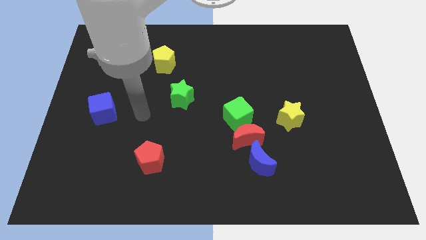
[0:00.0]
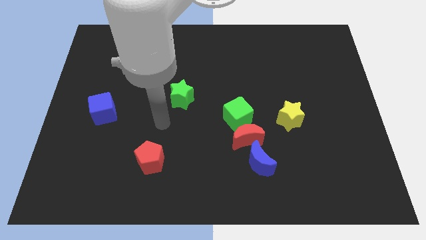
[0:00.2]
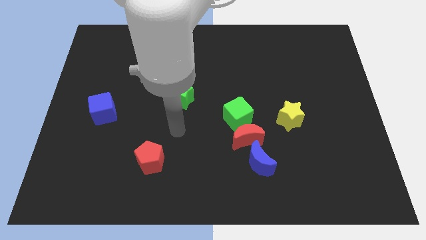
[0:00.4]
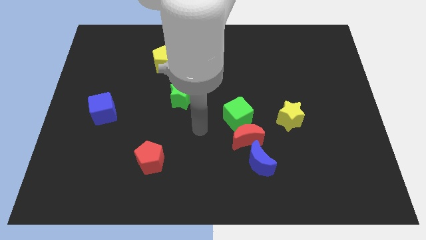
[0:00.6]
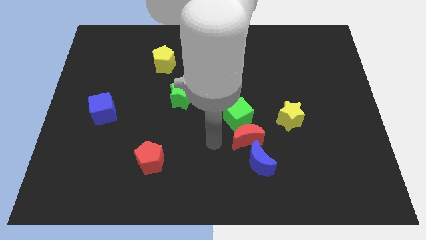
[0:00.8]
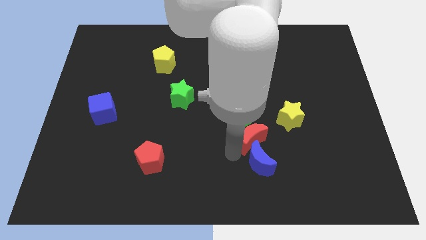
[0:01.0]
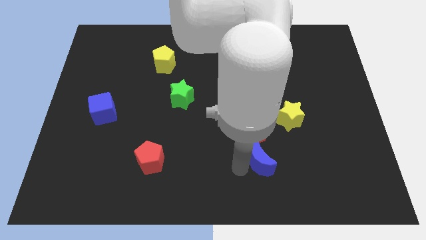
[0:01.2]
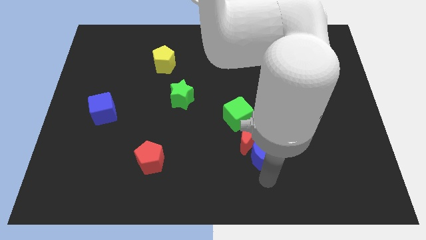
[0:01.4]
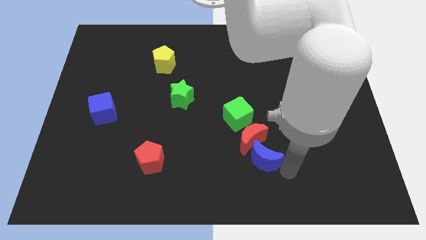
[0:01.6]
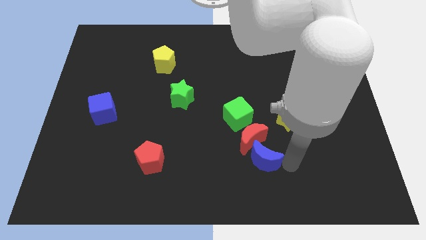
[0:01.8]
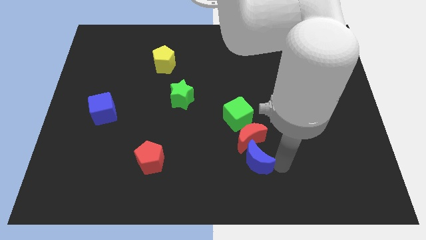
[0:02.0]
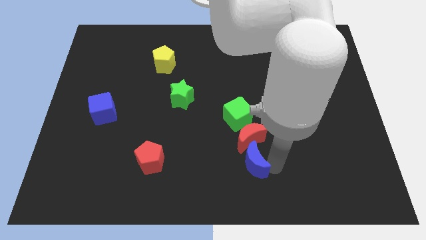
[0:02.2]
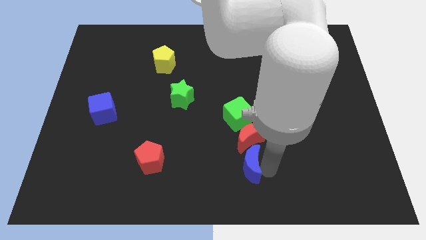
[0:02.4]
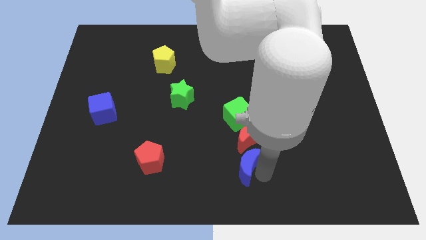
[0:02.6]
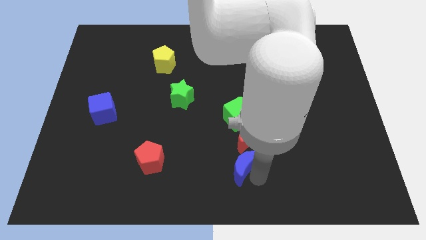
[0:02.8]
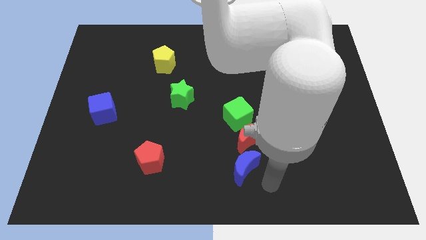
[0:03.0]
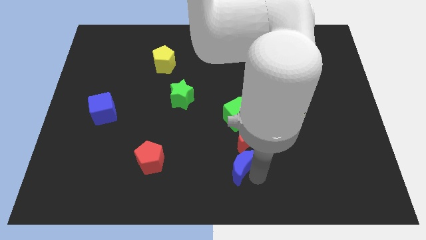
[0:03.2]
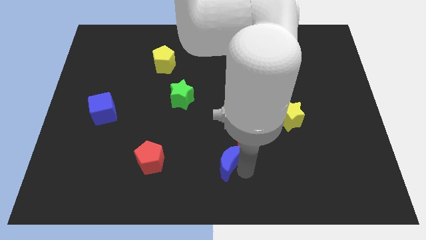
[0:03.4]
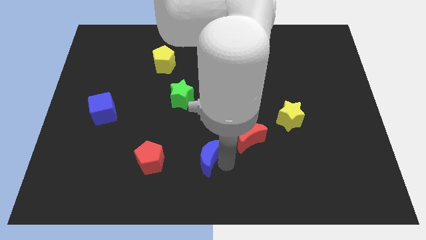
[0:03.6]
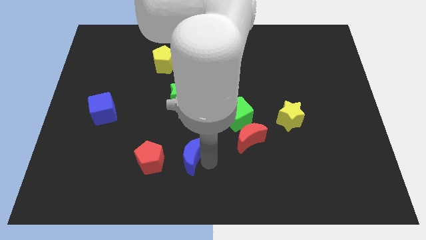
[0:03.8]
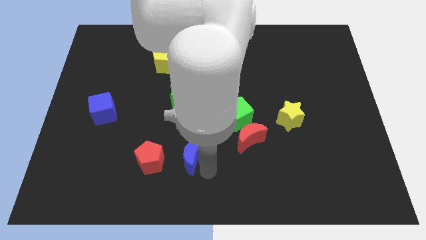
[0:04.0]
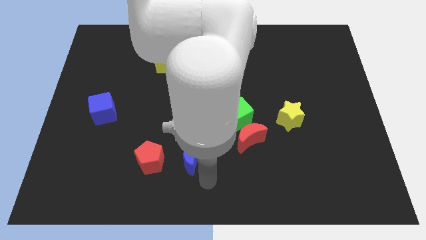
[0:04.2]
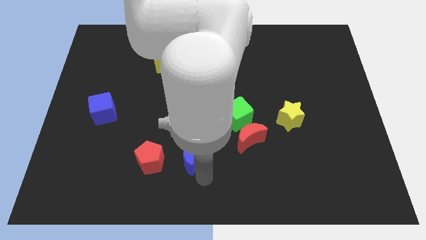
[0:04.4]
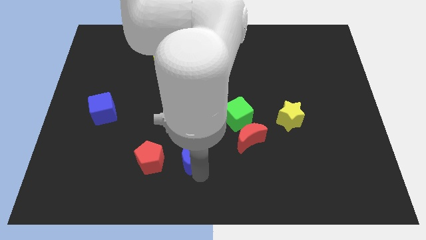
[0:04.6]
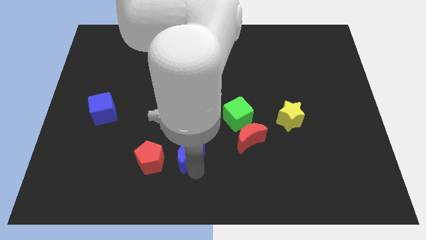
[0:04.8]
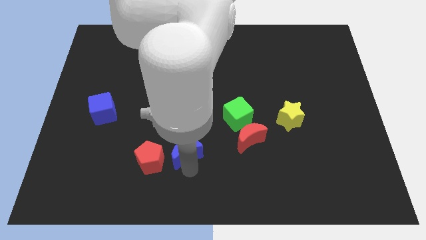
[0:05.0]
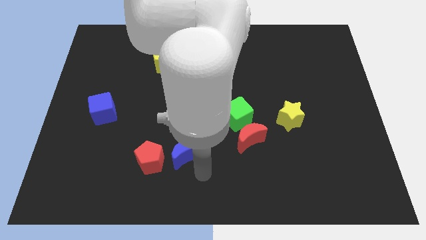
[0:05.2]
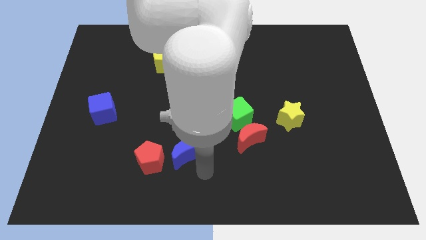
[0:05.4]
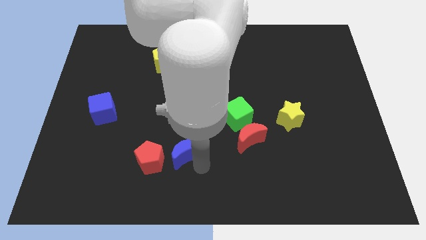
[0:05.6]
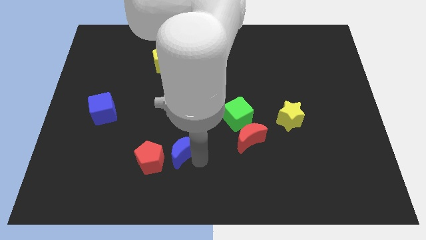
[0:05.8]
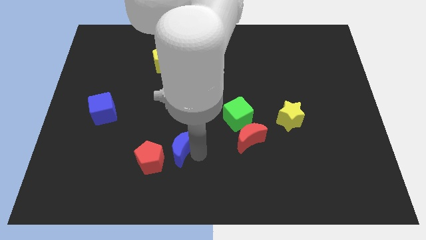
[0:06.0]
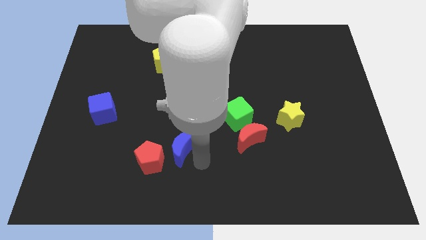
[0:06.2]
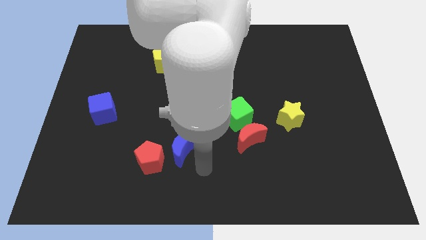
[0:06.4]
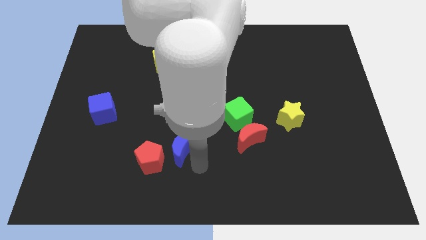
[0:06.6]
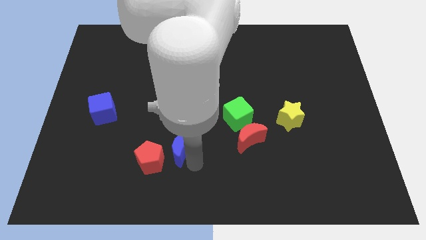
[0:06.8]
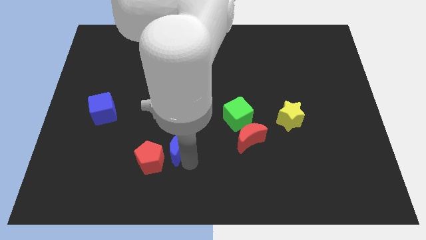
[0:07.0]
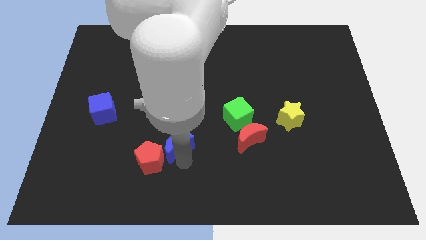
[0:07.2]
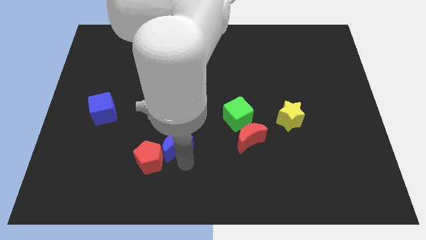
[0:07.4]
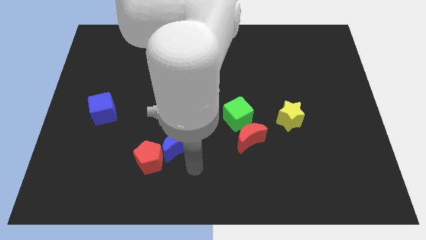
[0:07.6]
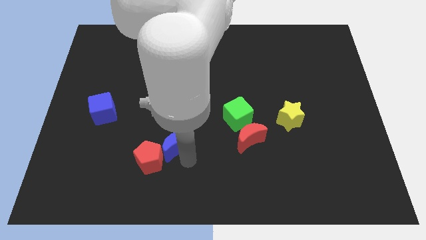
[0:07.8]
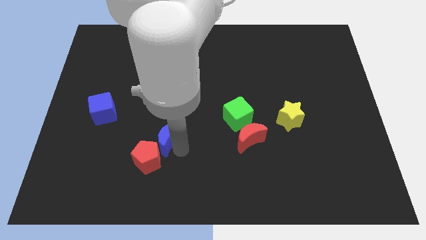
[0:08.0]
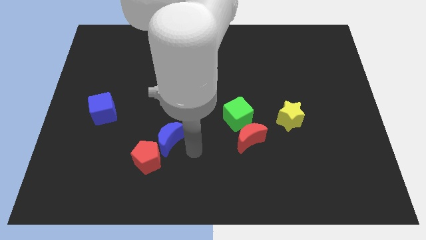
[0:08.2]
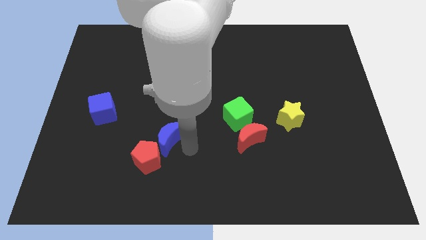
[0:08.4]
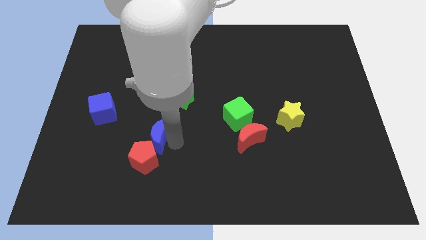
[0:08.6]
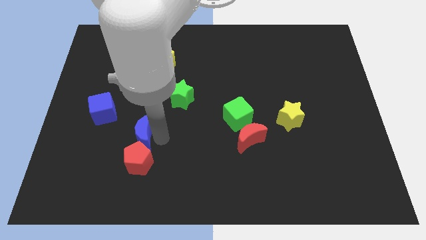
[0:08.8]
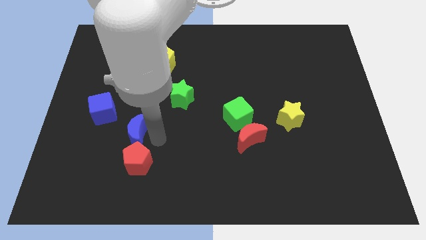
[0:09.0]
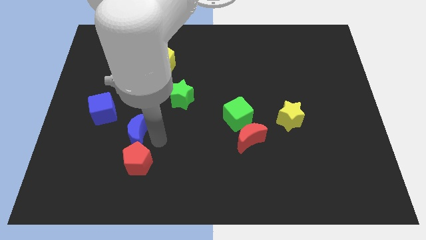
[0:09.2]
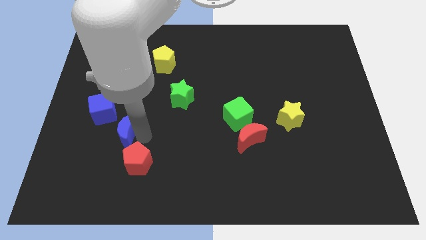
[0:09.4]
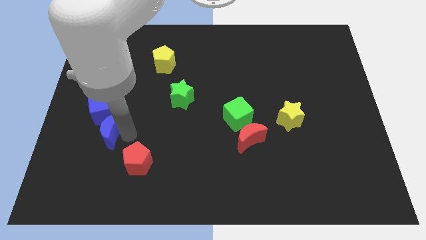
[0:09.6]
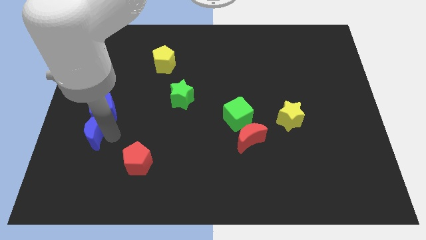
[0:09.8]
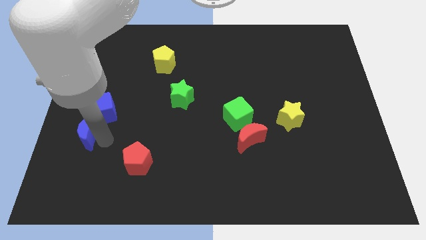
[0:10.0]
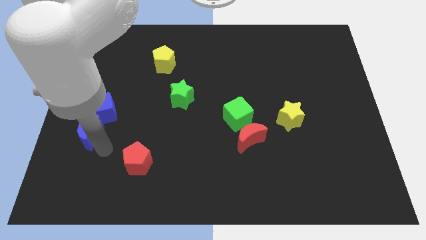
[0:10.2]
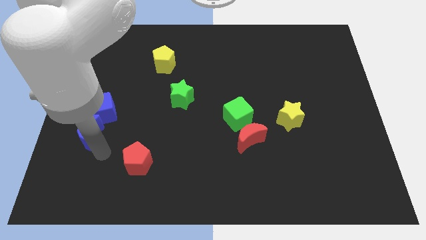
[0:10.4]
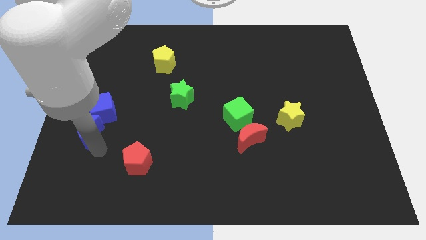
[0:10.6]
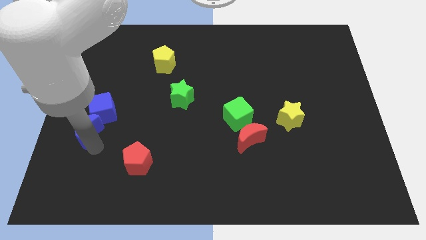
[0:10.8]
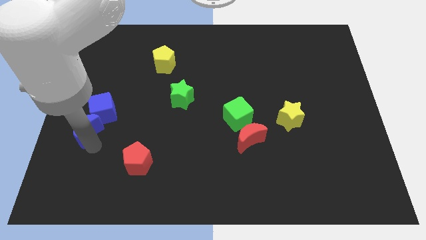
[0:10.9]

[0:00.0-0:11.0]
put the blue moon to the left side

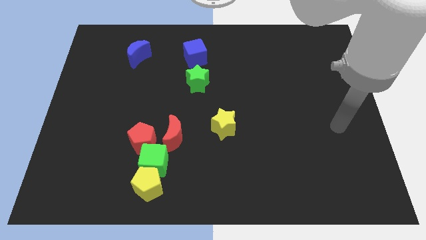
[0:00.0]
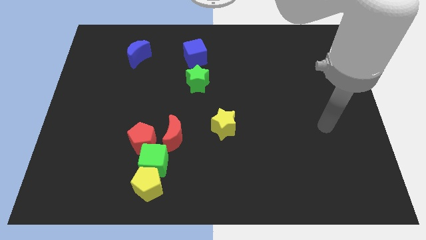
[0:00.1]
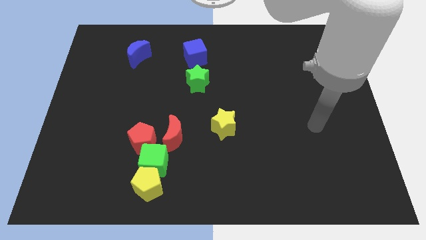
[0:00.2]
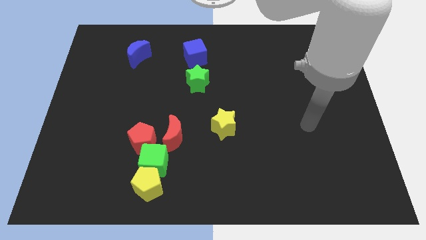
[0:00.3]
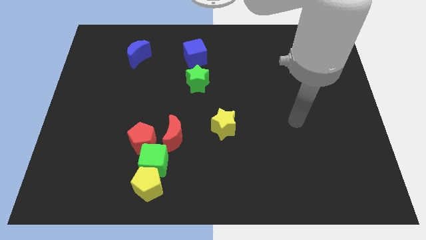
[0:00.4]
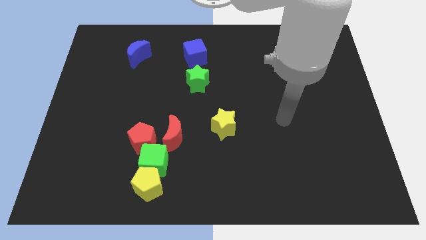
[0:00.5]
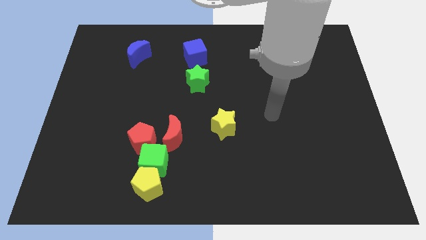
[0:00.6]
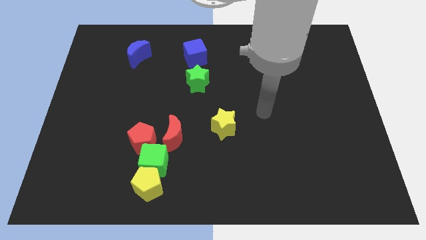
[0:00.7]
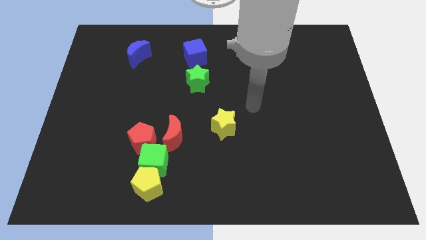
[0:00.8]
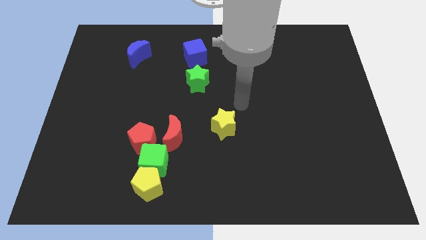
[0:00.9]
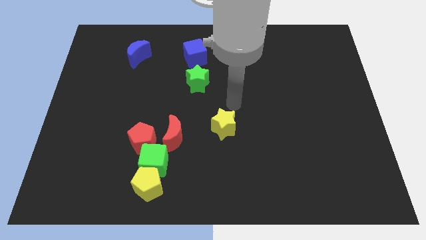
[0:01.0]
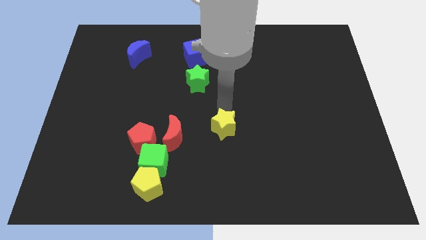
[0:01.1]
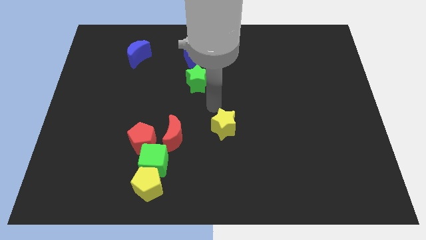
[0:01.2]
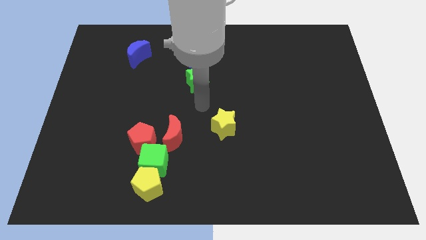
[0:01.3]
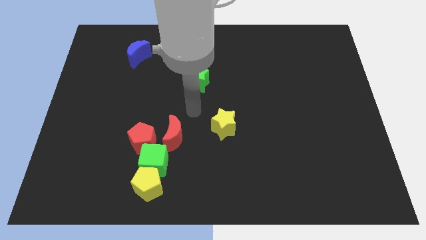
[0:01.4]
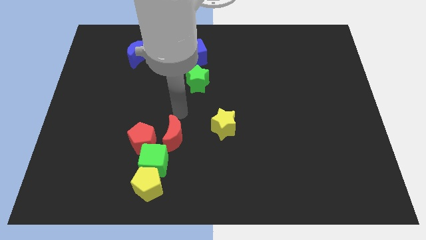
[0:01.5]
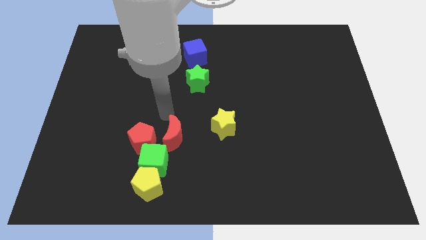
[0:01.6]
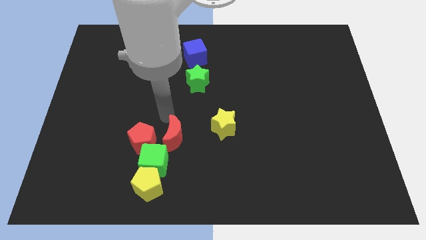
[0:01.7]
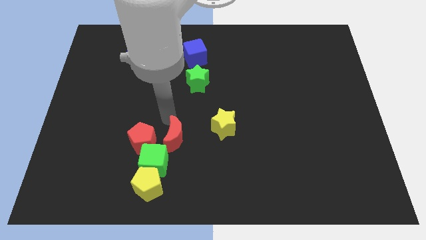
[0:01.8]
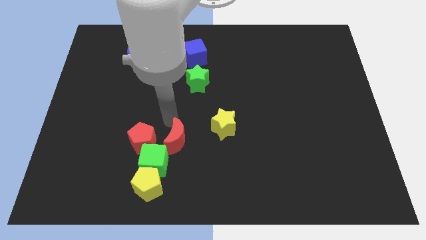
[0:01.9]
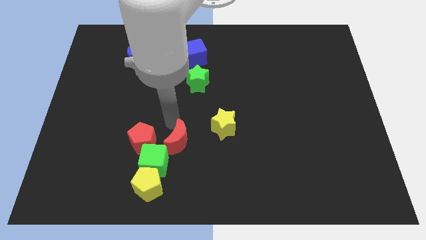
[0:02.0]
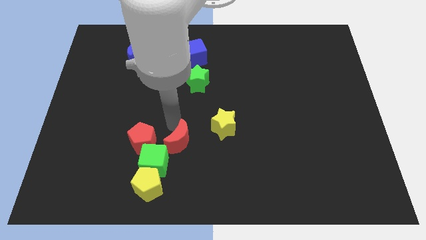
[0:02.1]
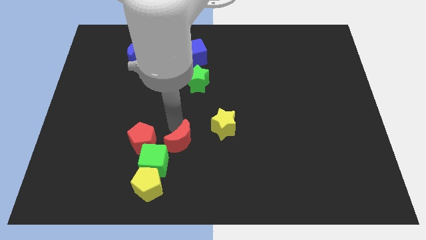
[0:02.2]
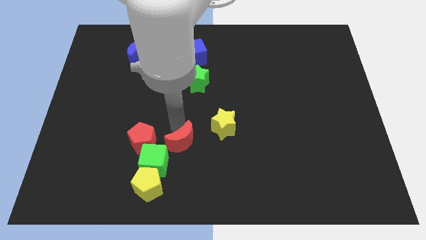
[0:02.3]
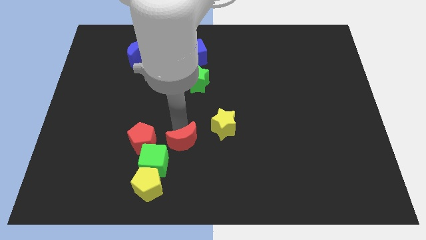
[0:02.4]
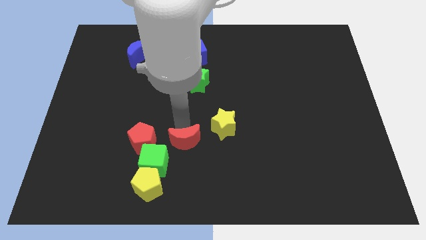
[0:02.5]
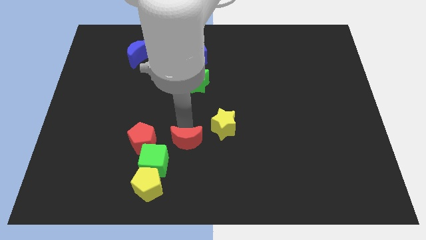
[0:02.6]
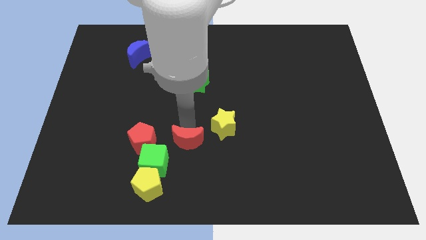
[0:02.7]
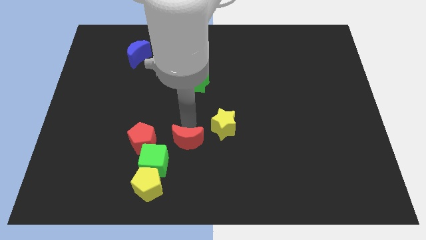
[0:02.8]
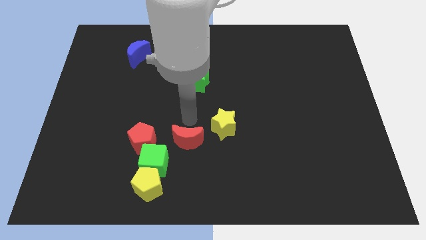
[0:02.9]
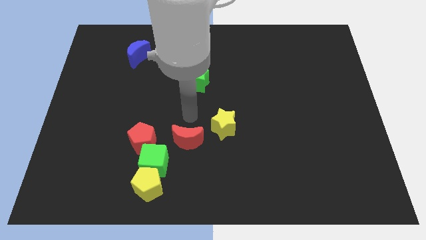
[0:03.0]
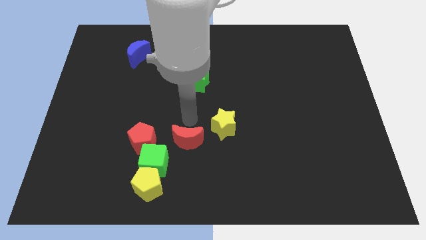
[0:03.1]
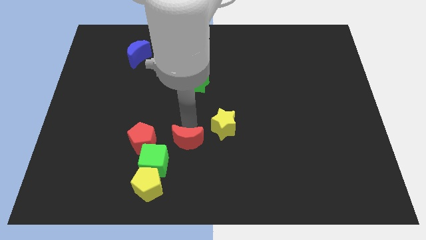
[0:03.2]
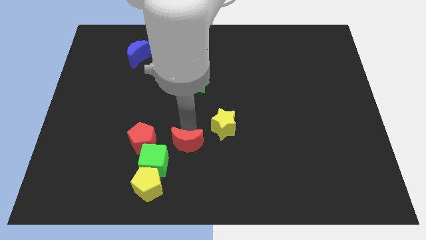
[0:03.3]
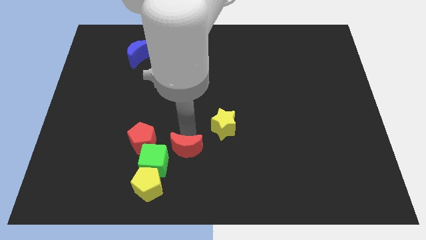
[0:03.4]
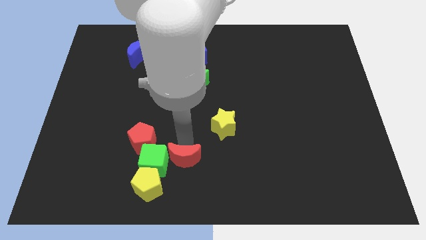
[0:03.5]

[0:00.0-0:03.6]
put the red moon to the bottom
